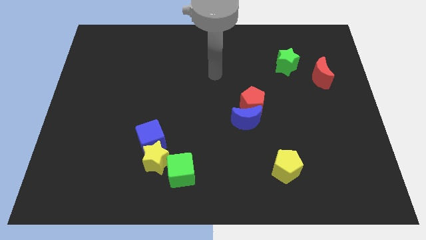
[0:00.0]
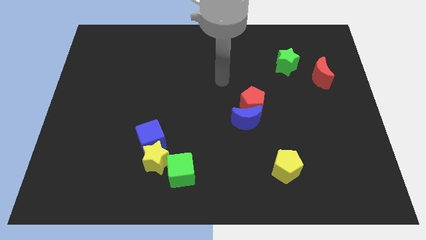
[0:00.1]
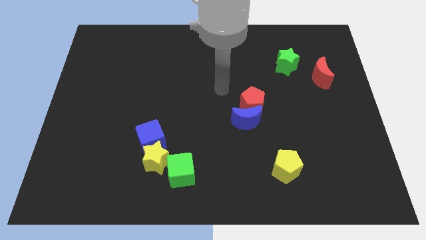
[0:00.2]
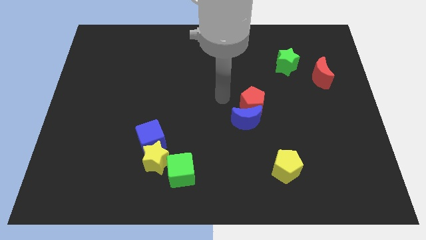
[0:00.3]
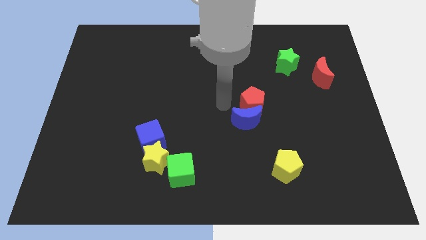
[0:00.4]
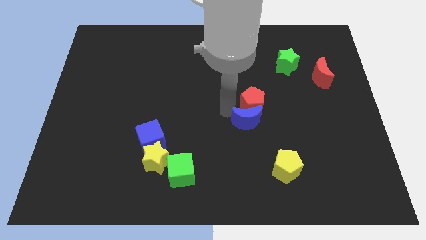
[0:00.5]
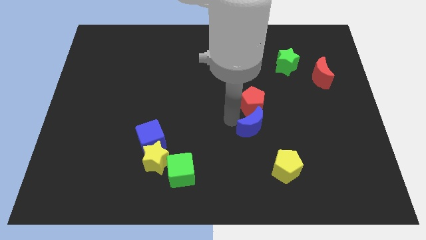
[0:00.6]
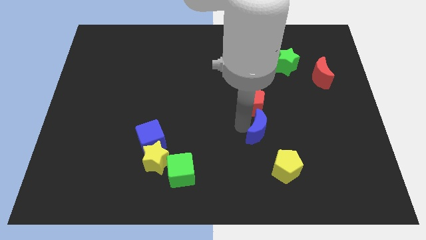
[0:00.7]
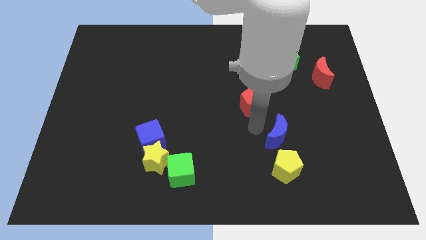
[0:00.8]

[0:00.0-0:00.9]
move the red pentagon away from the blue moon

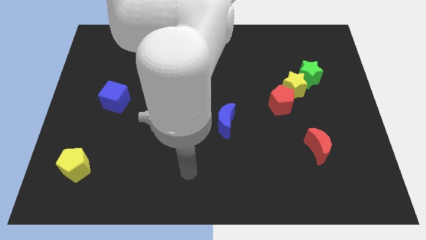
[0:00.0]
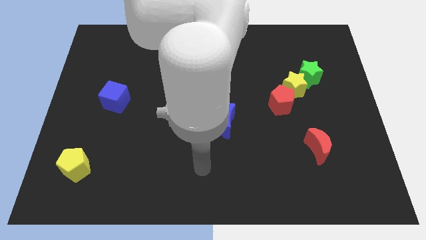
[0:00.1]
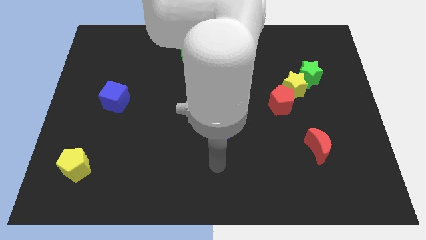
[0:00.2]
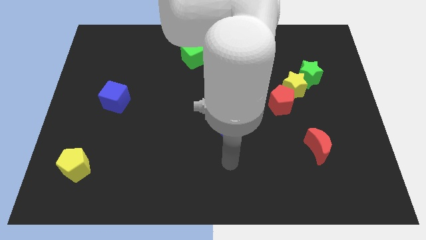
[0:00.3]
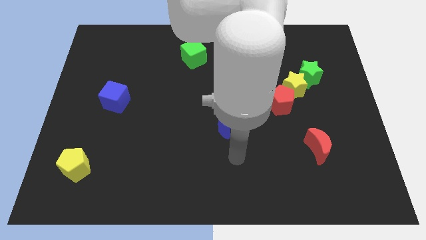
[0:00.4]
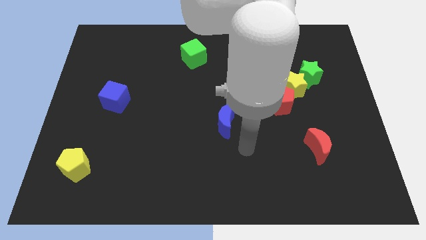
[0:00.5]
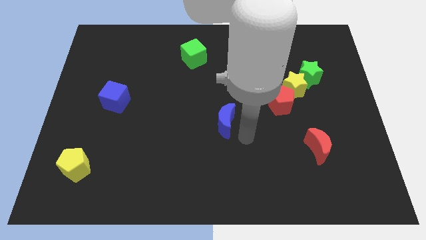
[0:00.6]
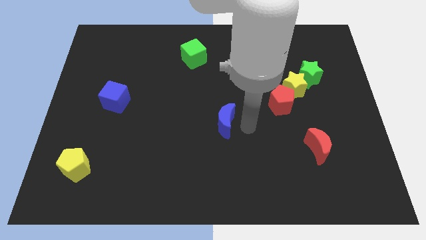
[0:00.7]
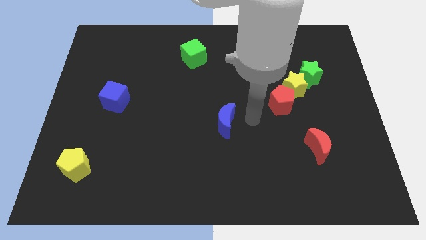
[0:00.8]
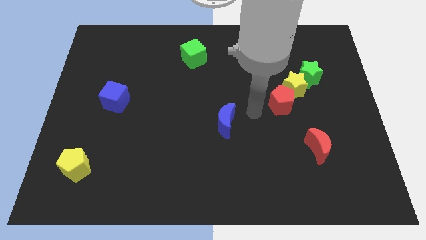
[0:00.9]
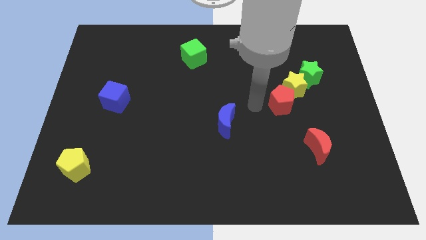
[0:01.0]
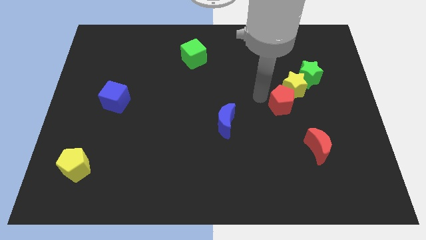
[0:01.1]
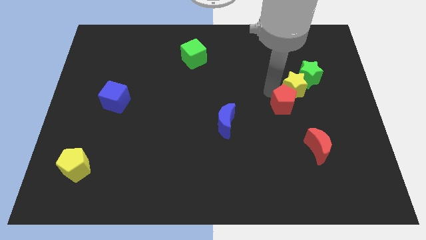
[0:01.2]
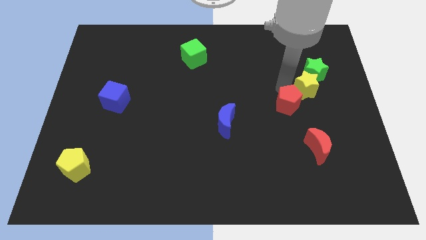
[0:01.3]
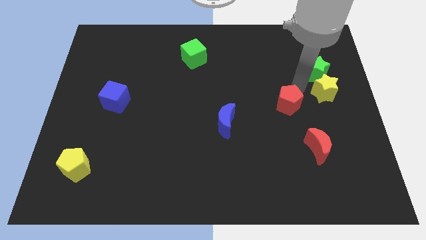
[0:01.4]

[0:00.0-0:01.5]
separate the red pentagon from the yellow star

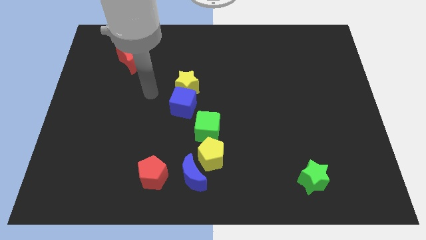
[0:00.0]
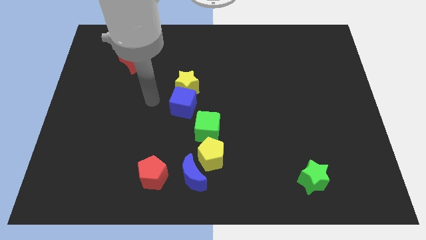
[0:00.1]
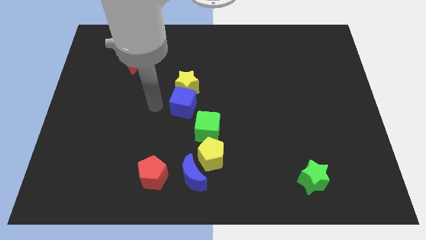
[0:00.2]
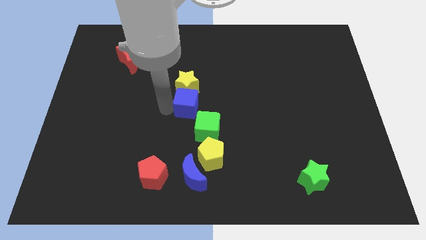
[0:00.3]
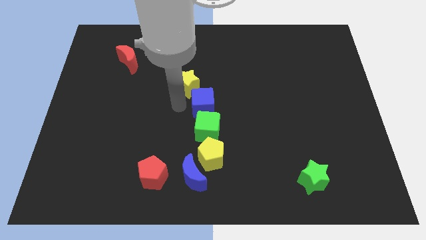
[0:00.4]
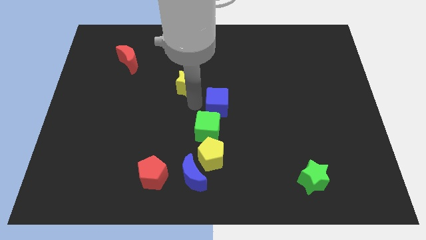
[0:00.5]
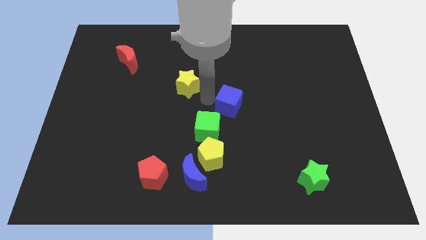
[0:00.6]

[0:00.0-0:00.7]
move the yellow star away from the blue cube

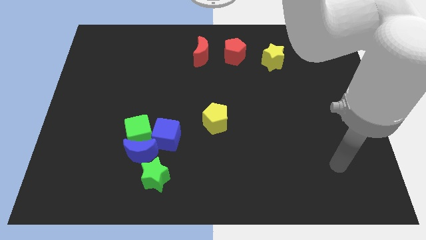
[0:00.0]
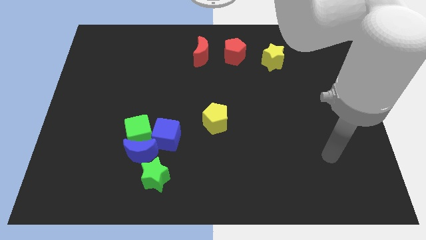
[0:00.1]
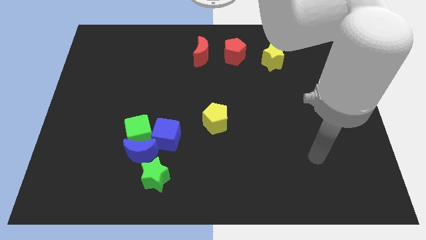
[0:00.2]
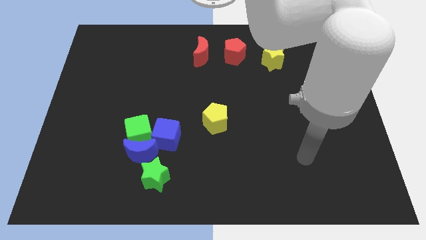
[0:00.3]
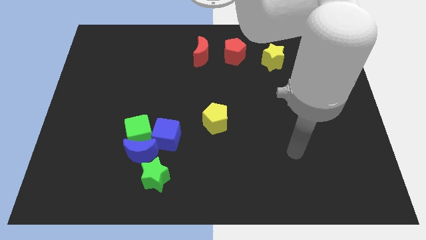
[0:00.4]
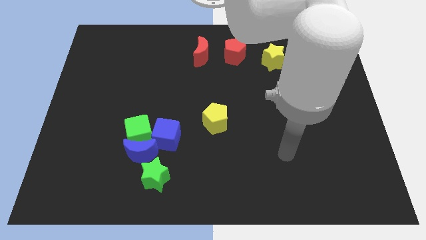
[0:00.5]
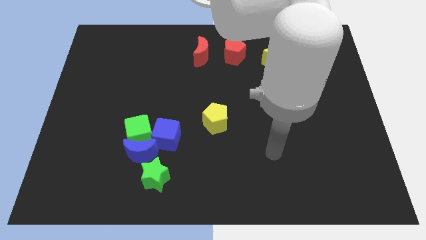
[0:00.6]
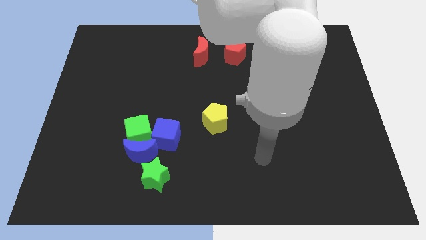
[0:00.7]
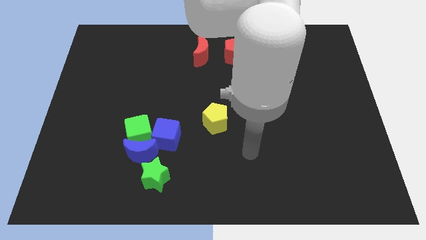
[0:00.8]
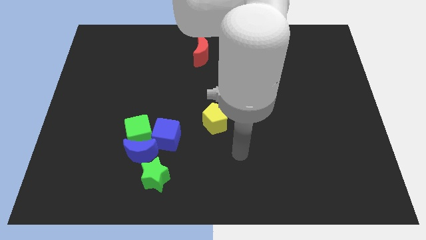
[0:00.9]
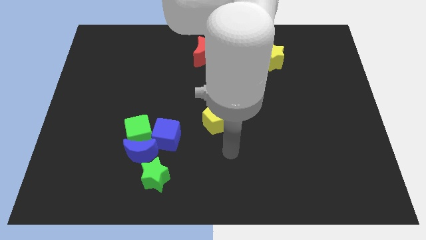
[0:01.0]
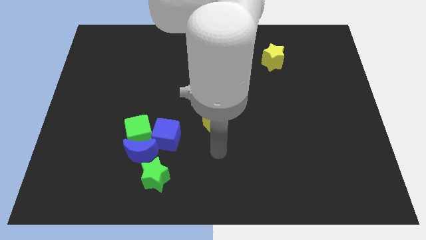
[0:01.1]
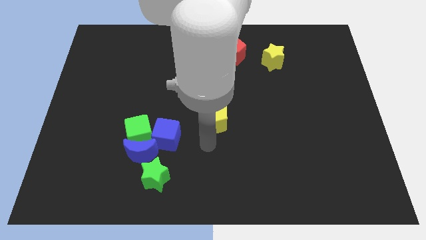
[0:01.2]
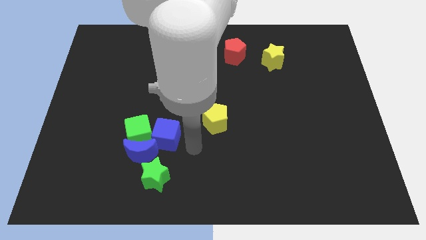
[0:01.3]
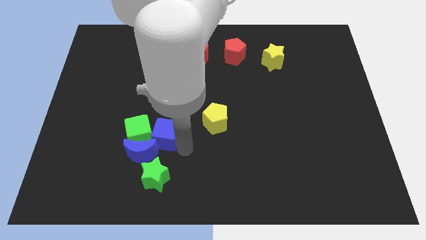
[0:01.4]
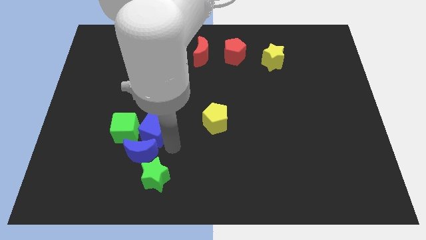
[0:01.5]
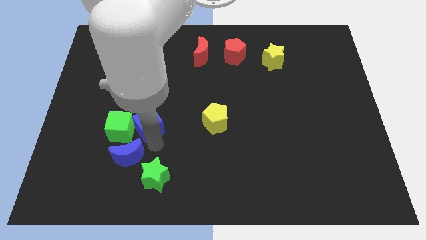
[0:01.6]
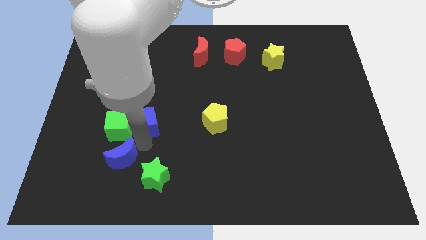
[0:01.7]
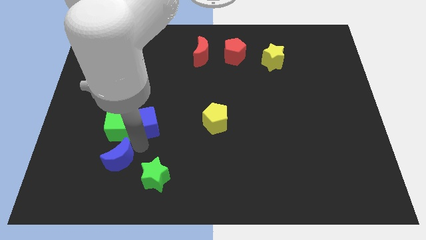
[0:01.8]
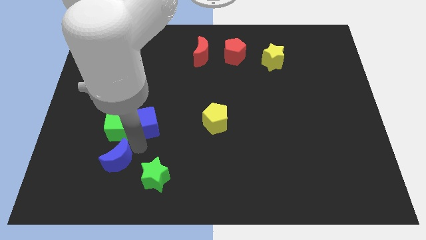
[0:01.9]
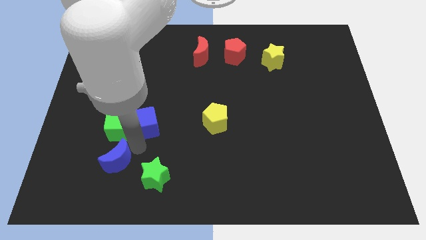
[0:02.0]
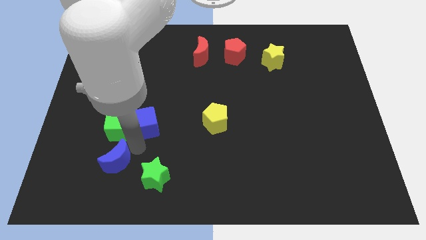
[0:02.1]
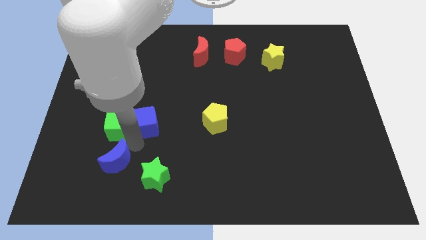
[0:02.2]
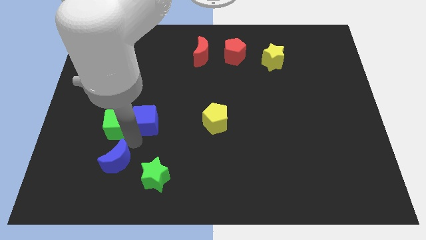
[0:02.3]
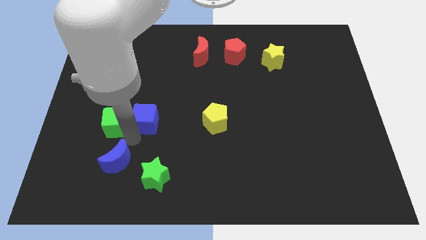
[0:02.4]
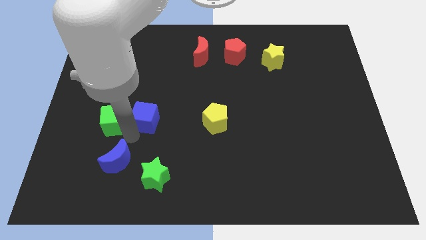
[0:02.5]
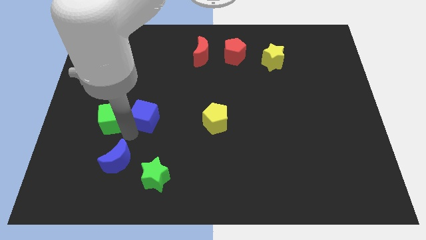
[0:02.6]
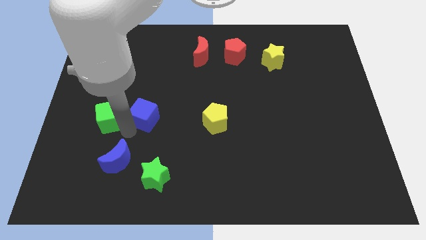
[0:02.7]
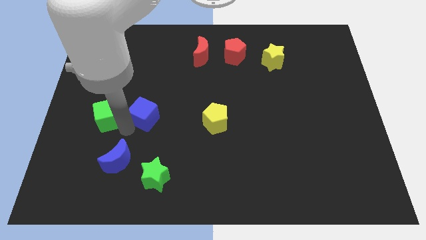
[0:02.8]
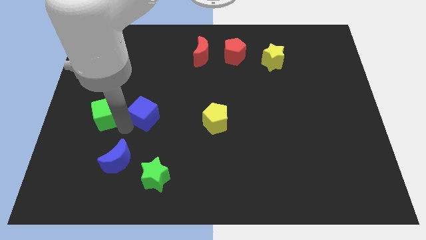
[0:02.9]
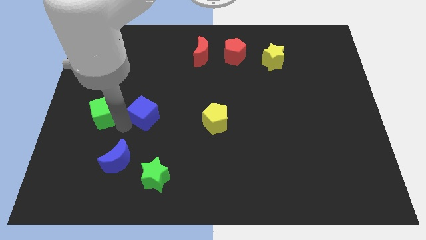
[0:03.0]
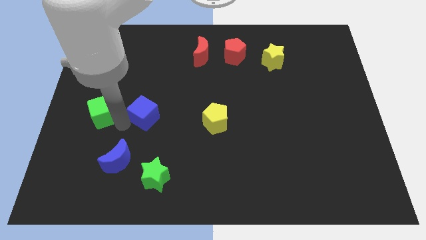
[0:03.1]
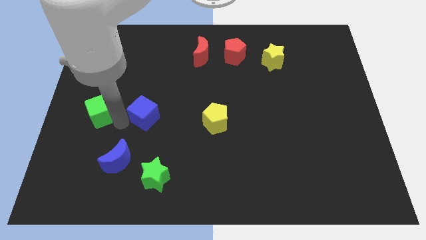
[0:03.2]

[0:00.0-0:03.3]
move the green cube away from the blue moon and blue cube

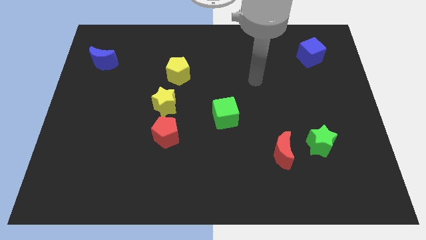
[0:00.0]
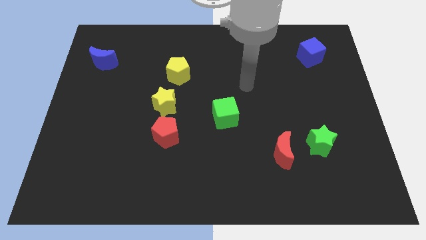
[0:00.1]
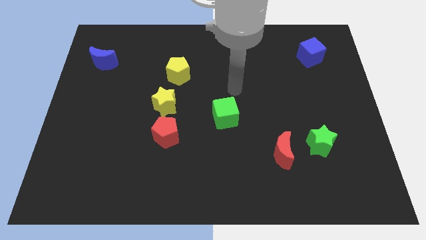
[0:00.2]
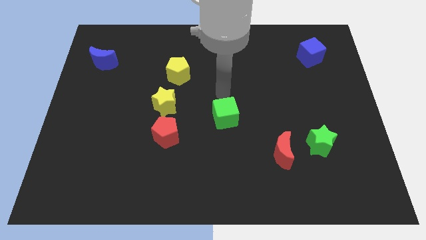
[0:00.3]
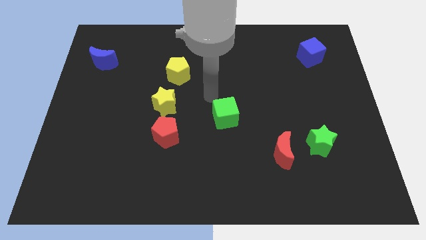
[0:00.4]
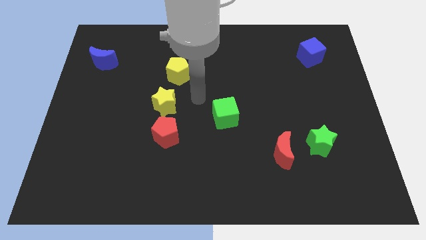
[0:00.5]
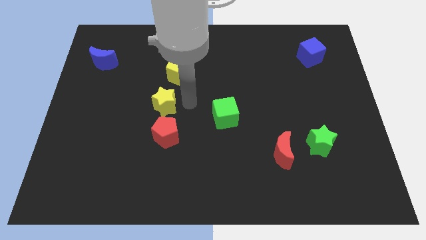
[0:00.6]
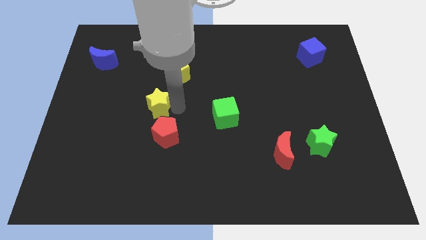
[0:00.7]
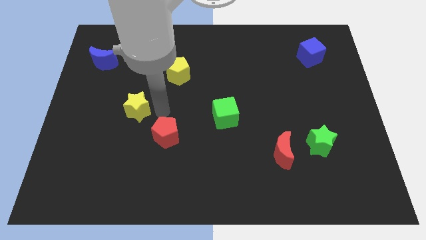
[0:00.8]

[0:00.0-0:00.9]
pull the red pentagon apart from the yellow star

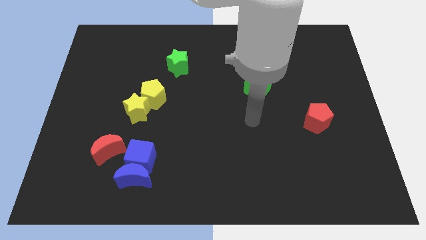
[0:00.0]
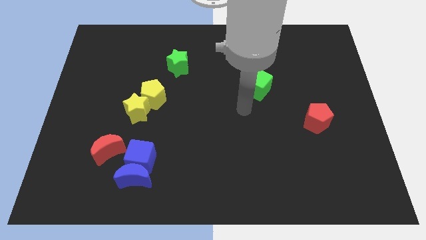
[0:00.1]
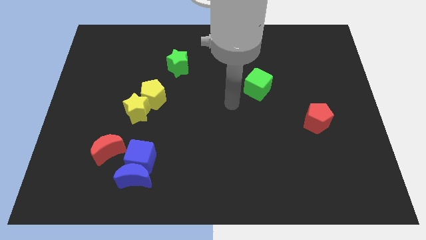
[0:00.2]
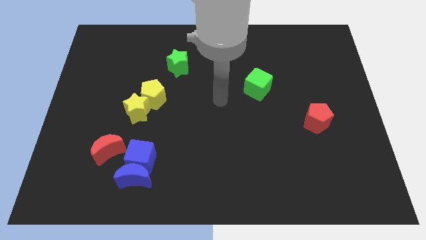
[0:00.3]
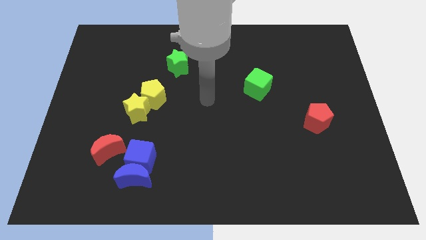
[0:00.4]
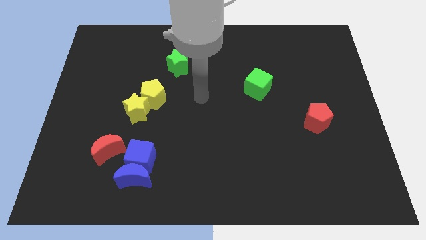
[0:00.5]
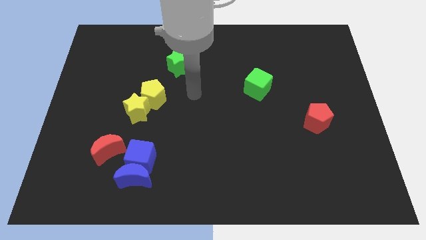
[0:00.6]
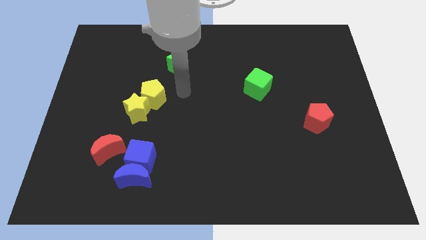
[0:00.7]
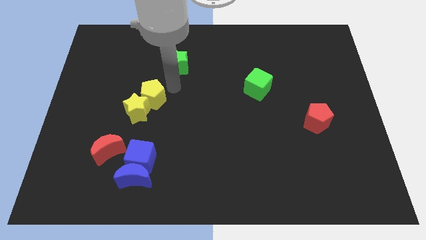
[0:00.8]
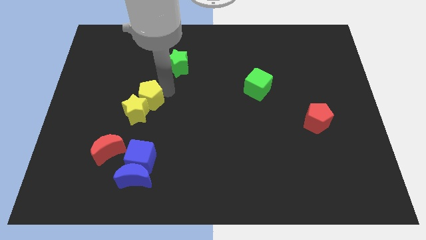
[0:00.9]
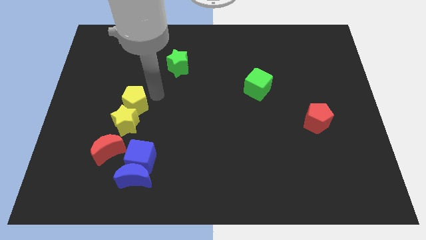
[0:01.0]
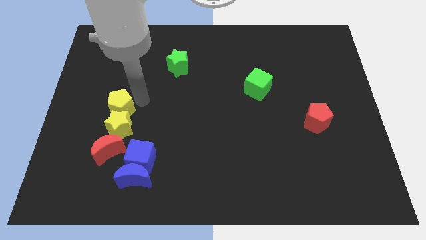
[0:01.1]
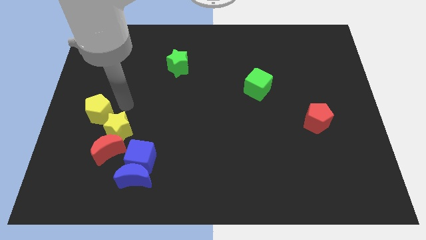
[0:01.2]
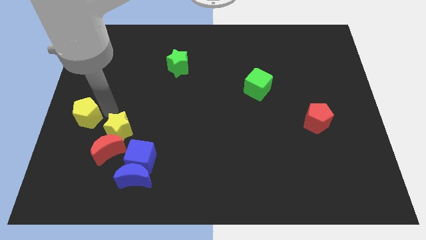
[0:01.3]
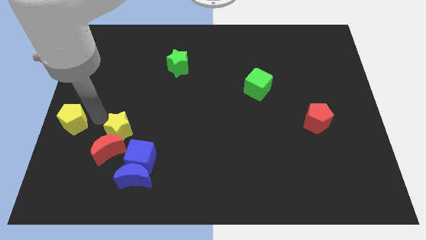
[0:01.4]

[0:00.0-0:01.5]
move the yellow star away from the yellow pentagon

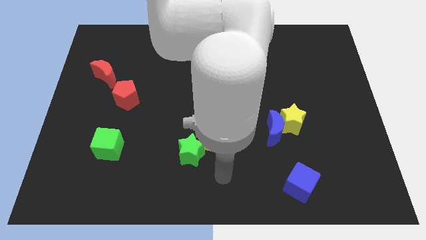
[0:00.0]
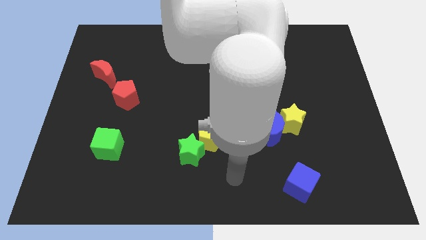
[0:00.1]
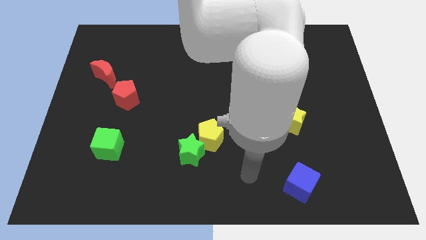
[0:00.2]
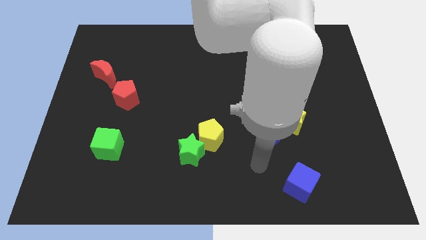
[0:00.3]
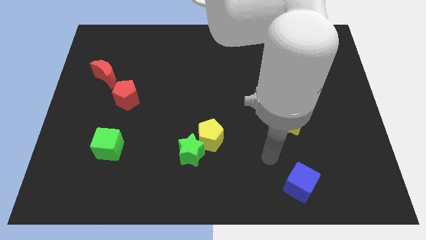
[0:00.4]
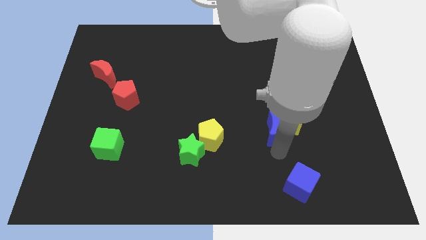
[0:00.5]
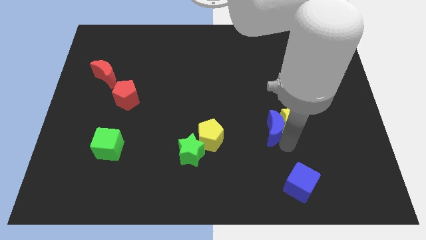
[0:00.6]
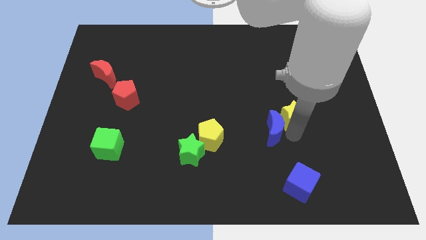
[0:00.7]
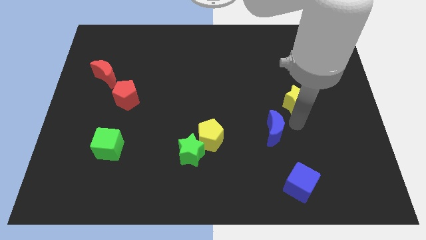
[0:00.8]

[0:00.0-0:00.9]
separate the blue moon from the yellow star
